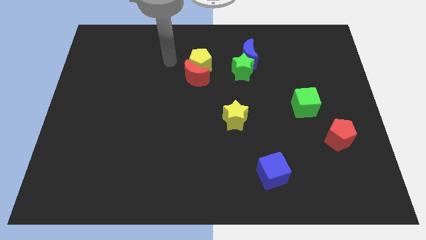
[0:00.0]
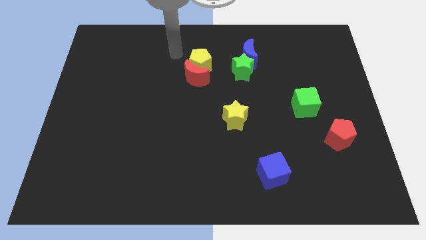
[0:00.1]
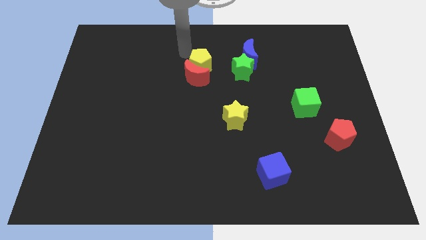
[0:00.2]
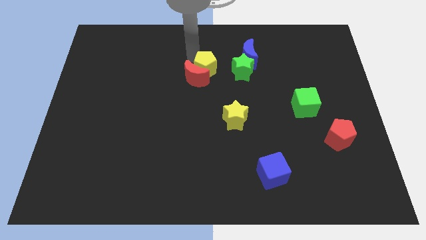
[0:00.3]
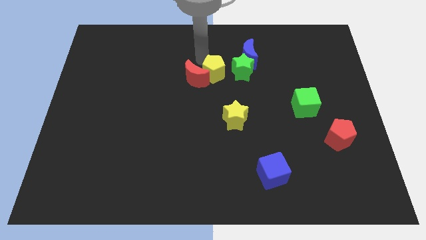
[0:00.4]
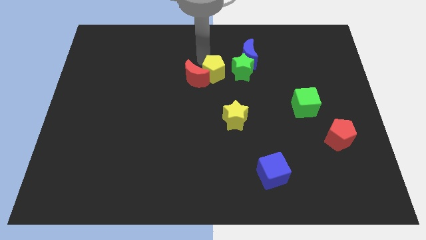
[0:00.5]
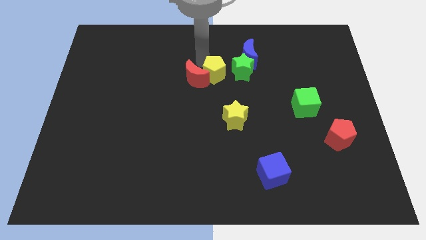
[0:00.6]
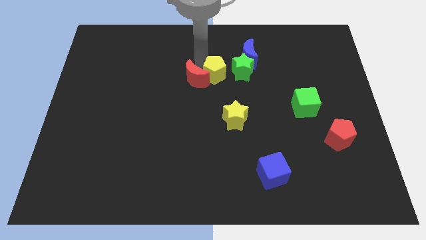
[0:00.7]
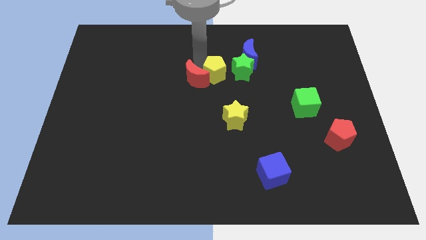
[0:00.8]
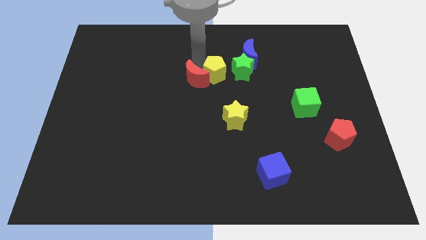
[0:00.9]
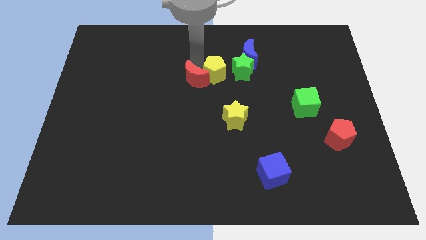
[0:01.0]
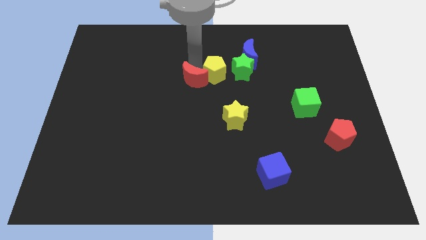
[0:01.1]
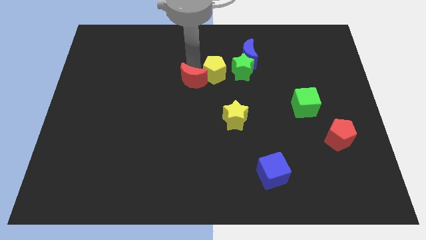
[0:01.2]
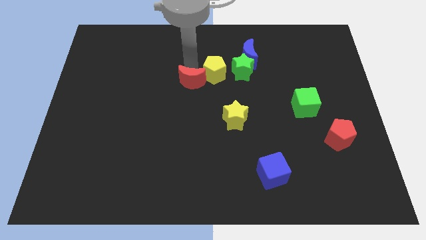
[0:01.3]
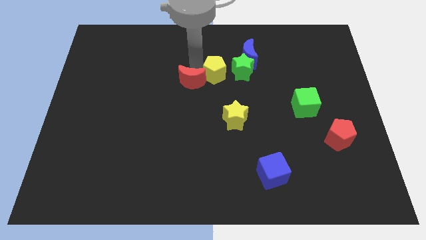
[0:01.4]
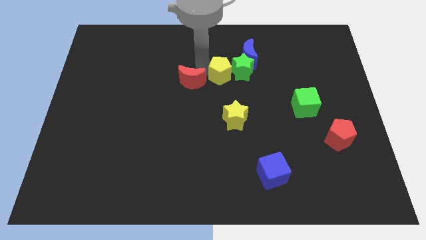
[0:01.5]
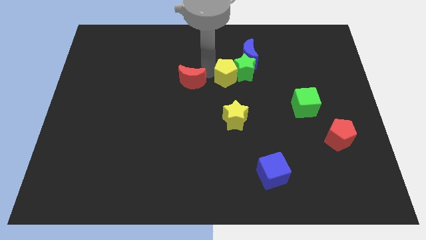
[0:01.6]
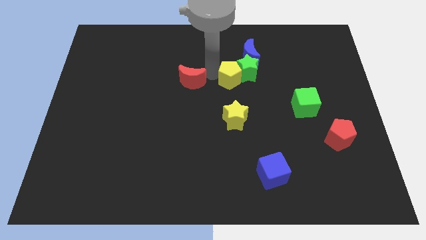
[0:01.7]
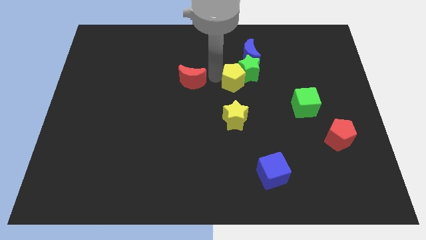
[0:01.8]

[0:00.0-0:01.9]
move the red moon away from the yellow pentagon

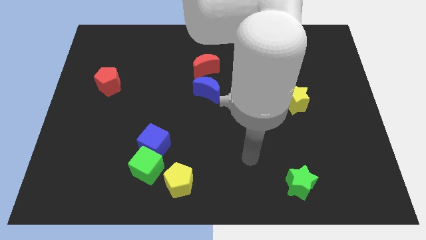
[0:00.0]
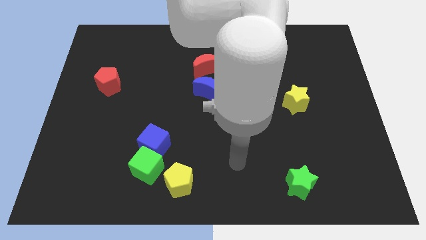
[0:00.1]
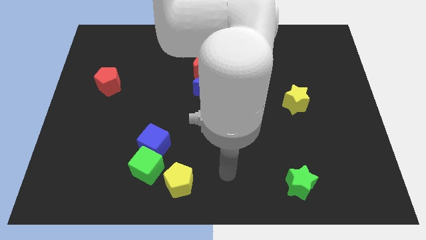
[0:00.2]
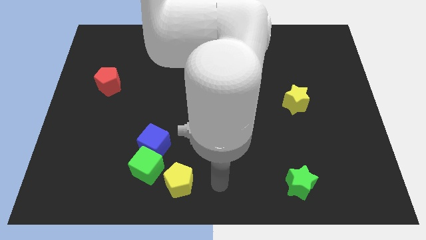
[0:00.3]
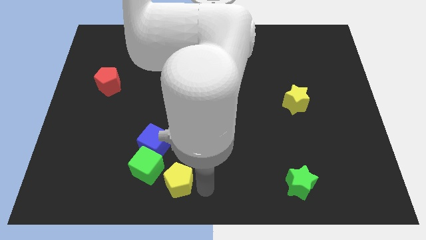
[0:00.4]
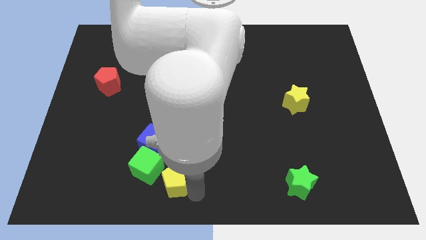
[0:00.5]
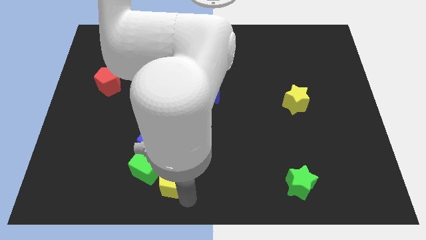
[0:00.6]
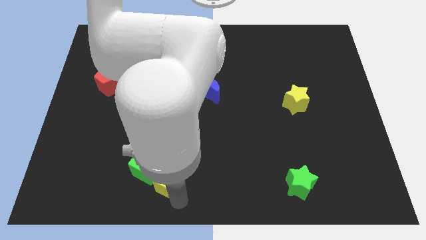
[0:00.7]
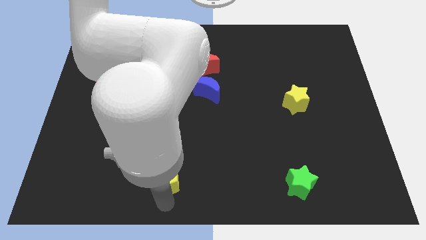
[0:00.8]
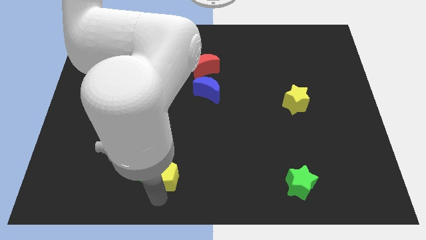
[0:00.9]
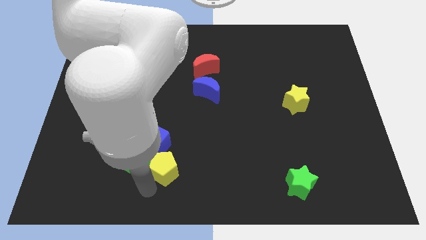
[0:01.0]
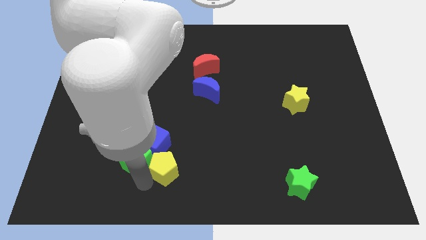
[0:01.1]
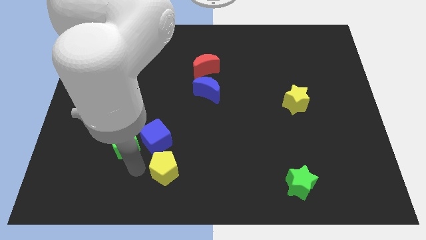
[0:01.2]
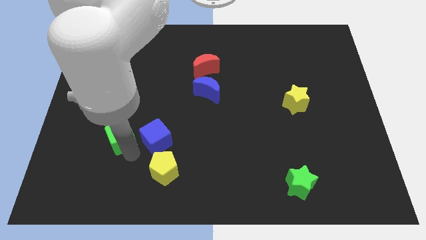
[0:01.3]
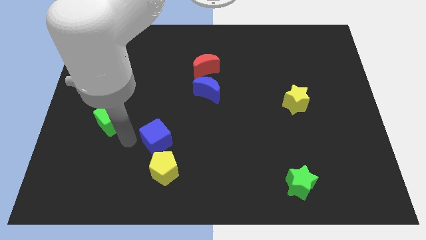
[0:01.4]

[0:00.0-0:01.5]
move the blue cube away from the green cube

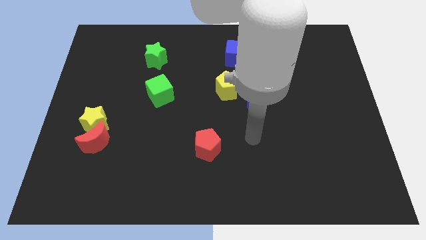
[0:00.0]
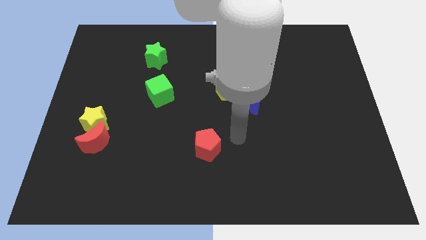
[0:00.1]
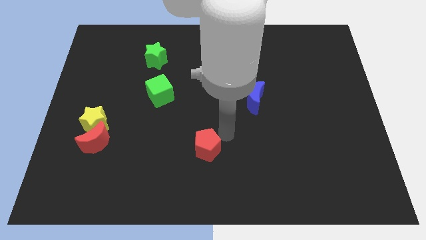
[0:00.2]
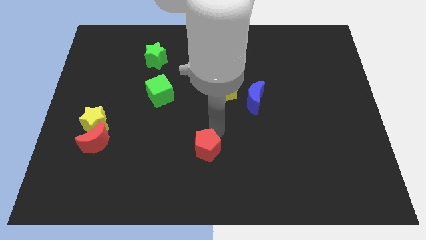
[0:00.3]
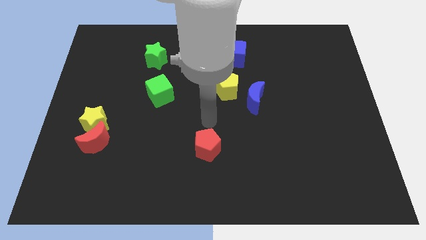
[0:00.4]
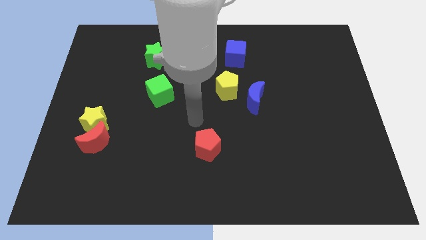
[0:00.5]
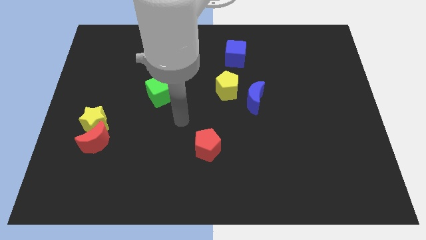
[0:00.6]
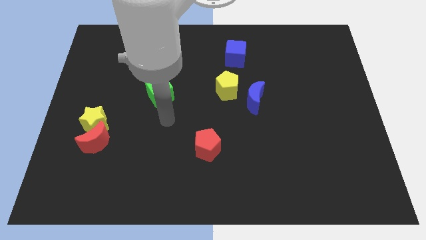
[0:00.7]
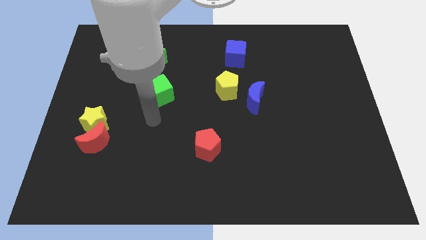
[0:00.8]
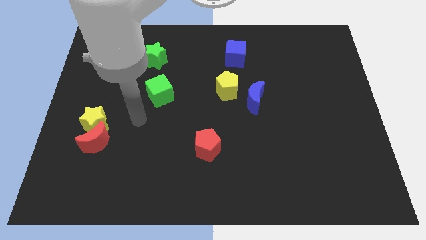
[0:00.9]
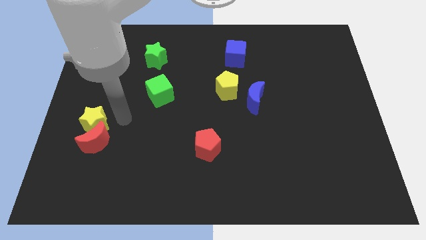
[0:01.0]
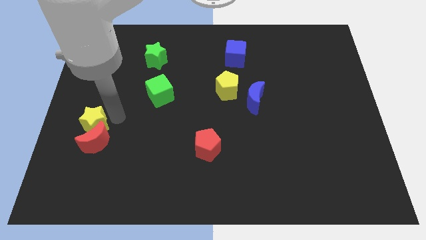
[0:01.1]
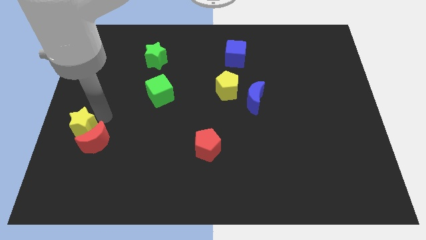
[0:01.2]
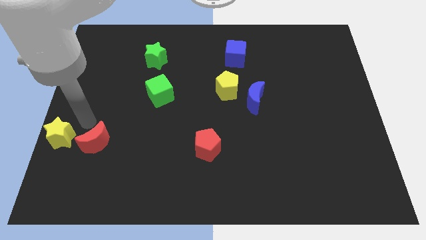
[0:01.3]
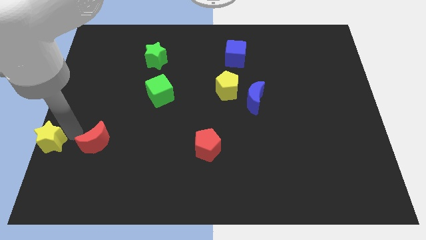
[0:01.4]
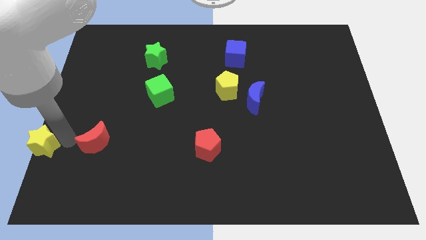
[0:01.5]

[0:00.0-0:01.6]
pull the red moon apart from the yellow star

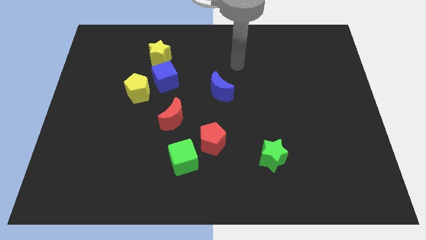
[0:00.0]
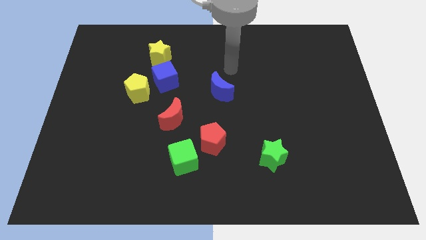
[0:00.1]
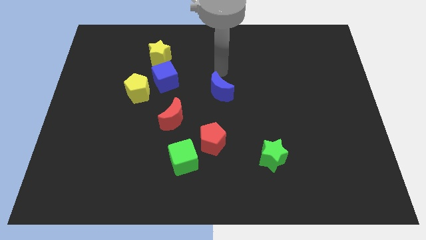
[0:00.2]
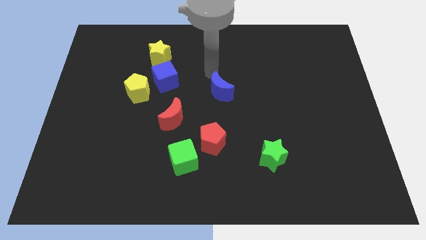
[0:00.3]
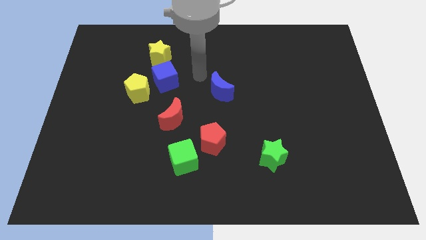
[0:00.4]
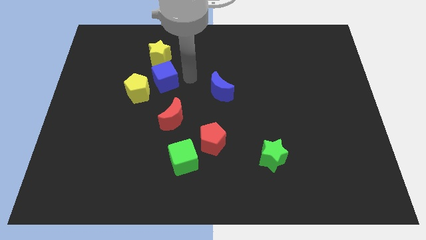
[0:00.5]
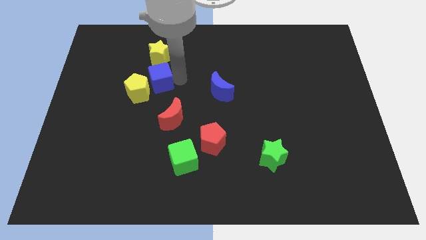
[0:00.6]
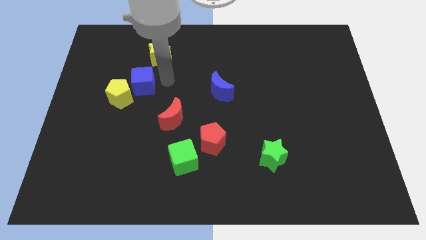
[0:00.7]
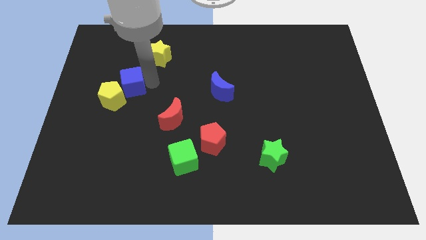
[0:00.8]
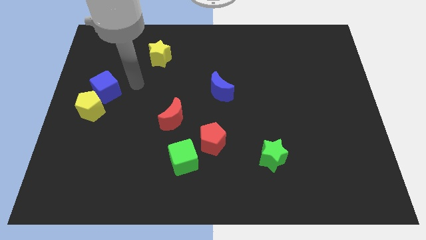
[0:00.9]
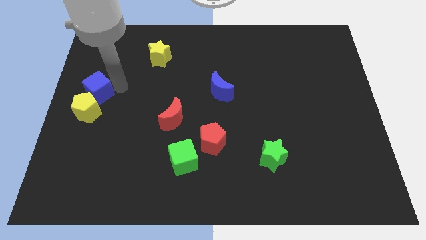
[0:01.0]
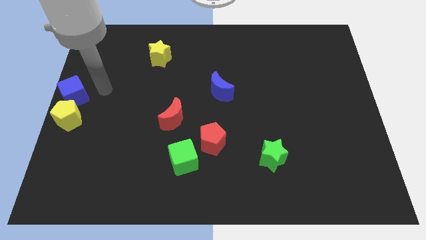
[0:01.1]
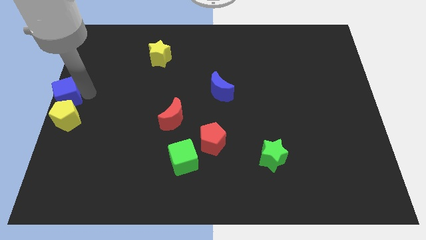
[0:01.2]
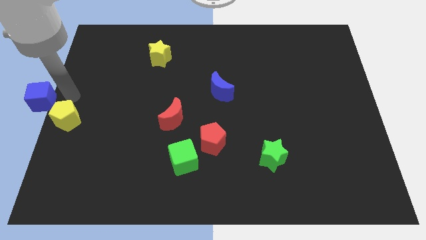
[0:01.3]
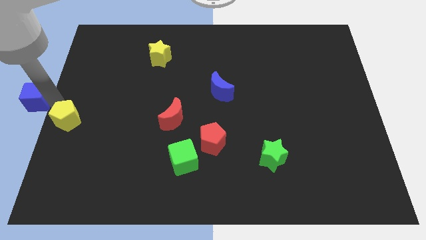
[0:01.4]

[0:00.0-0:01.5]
pull the yellow pentagon apart from the blue cube

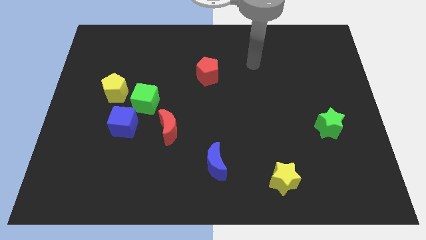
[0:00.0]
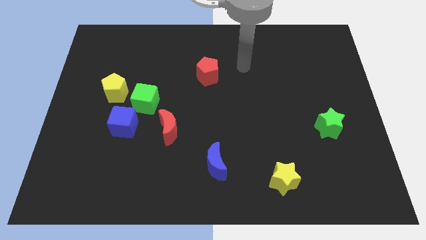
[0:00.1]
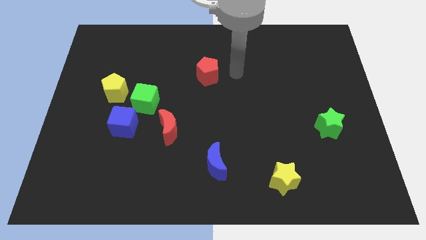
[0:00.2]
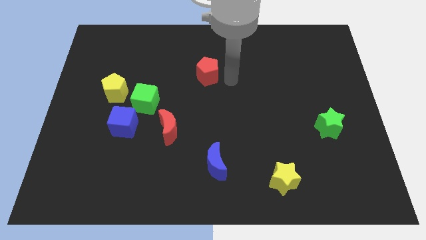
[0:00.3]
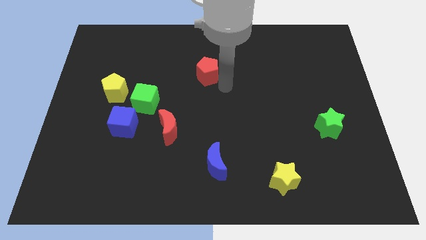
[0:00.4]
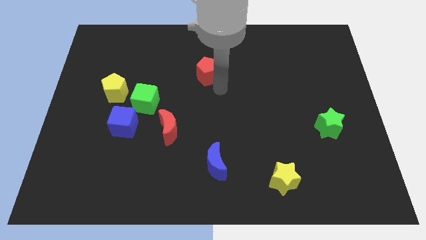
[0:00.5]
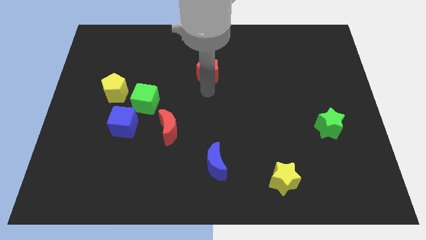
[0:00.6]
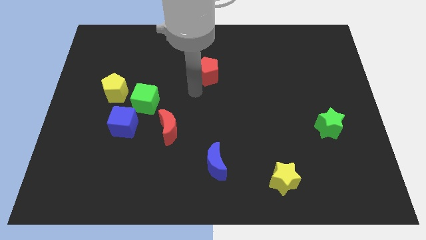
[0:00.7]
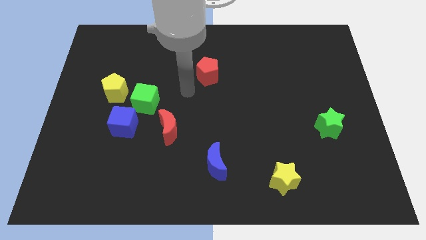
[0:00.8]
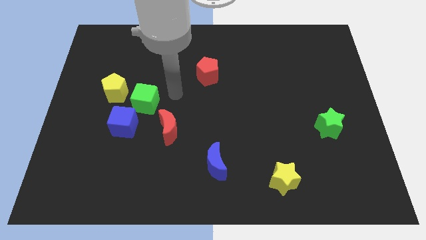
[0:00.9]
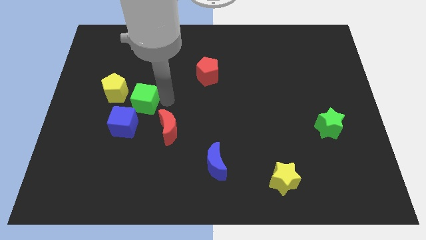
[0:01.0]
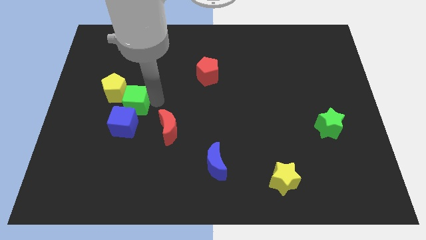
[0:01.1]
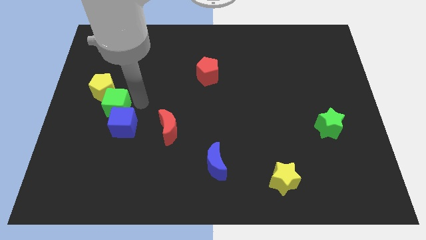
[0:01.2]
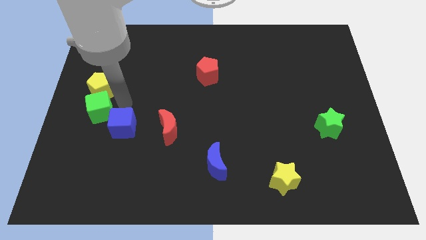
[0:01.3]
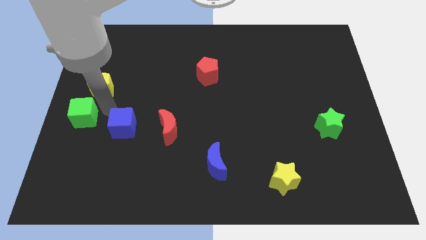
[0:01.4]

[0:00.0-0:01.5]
separate the blue cube from the green cube

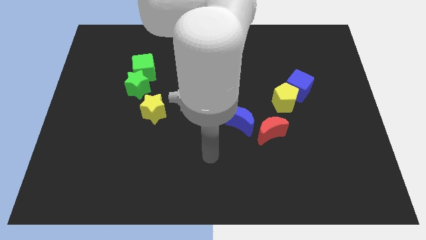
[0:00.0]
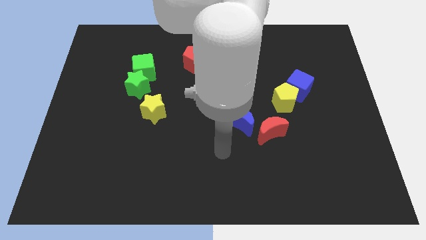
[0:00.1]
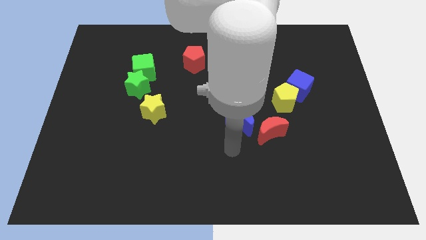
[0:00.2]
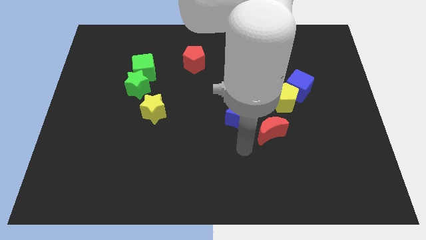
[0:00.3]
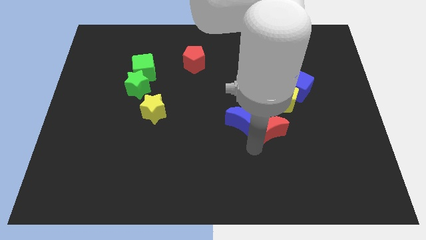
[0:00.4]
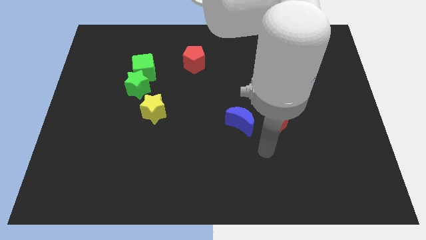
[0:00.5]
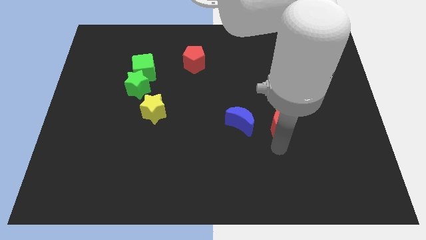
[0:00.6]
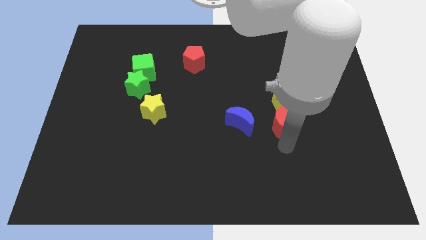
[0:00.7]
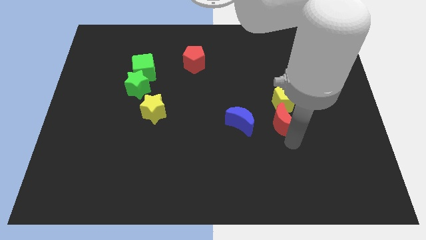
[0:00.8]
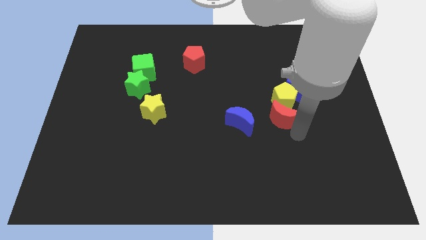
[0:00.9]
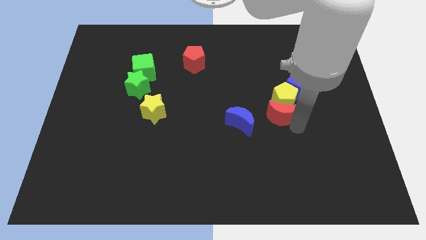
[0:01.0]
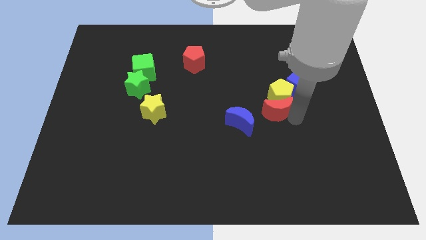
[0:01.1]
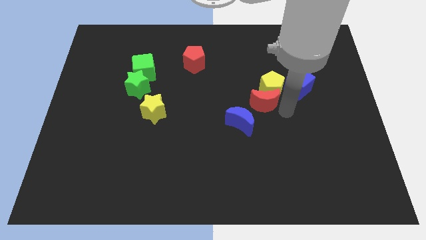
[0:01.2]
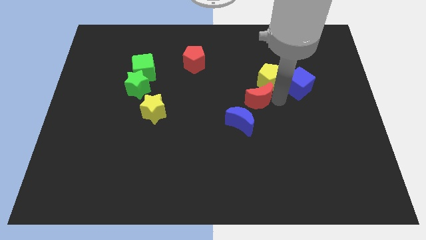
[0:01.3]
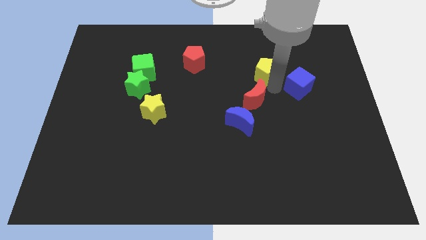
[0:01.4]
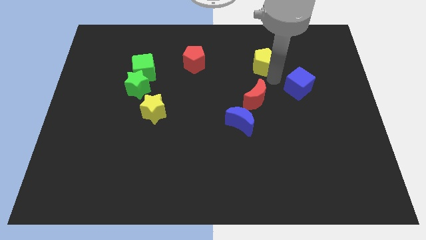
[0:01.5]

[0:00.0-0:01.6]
pull the blue cube apart from the yellow pentagon
